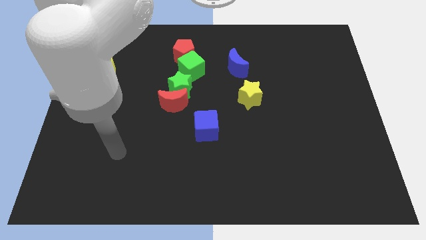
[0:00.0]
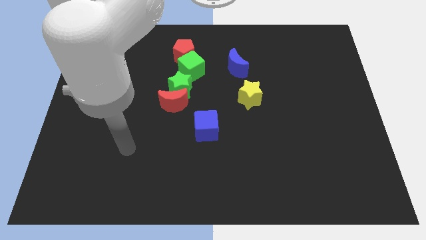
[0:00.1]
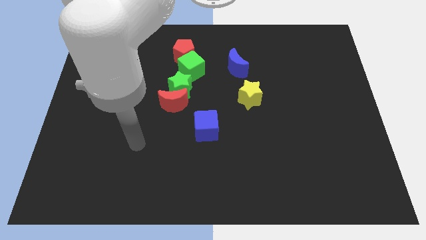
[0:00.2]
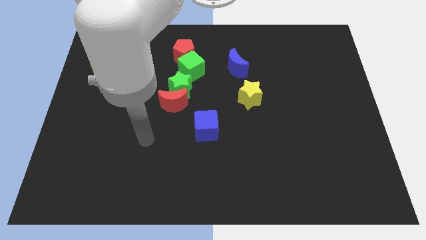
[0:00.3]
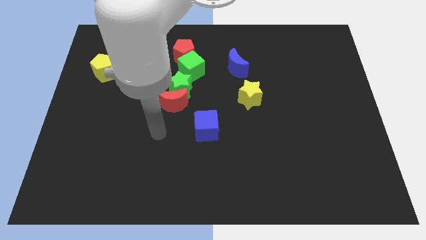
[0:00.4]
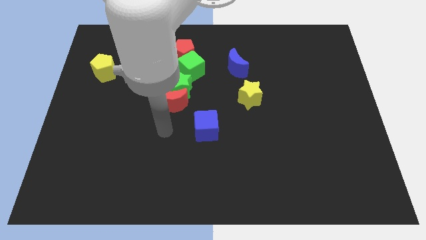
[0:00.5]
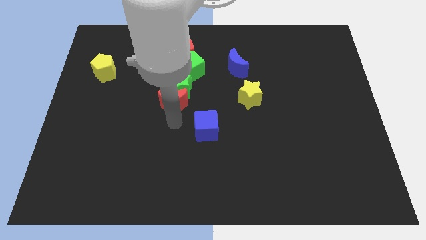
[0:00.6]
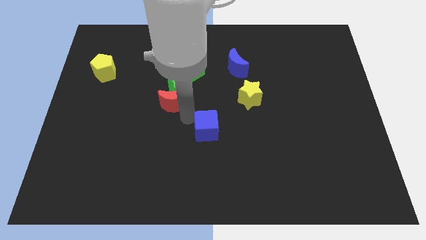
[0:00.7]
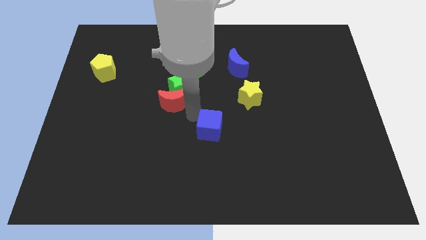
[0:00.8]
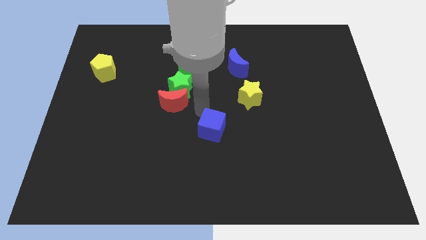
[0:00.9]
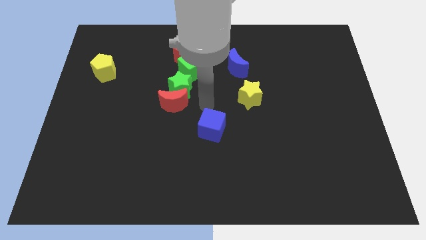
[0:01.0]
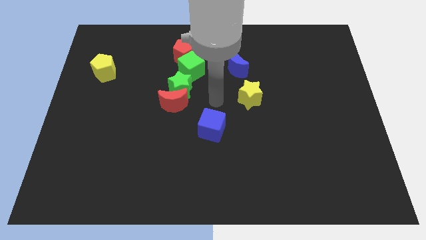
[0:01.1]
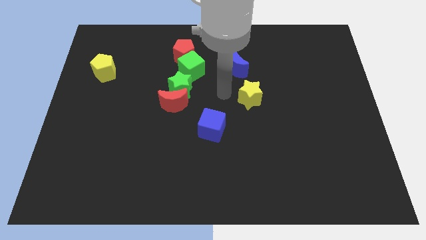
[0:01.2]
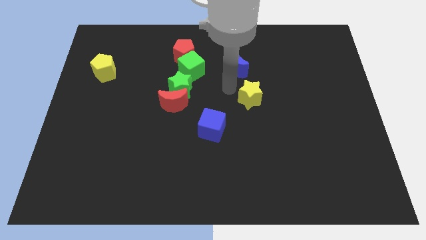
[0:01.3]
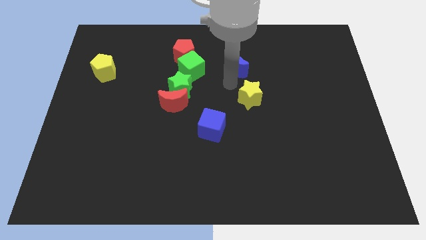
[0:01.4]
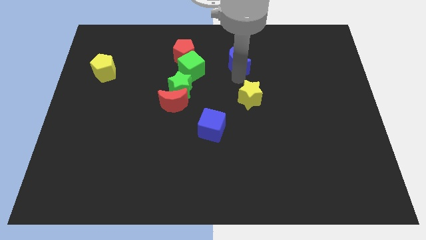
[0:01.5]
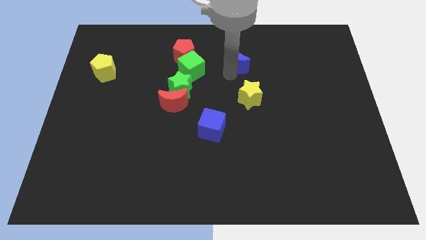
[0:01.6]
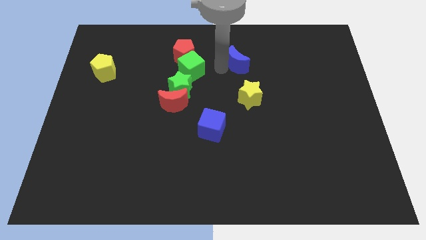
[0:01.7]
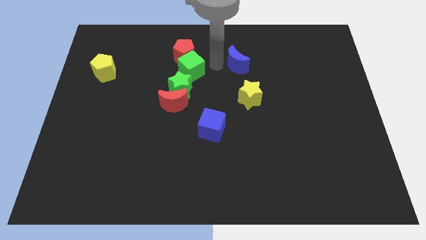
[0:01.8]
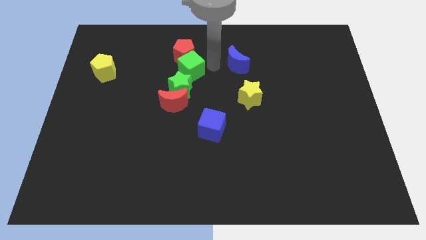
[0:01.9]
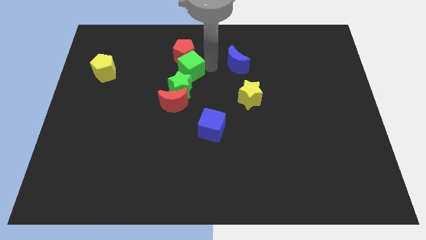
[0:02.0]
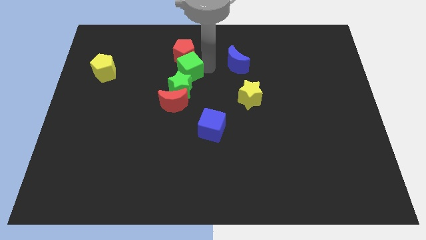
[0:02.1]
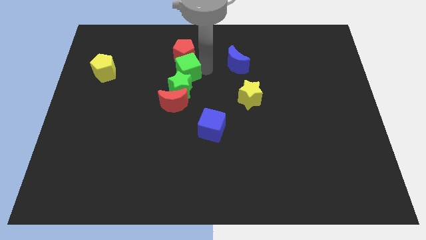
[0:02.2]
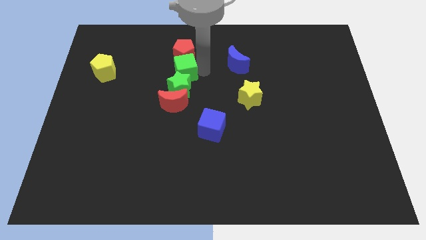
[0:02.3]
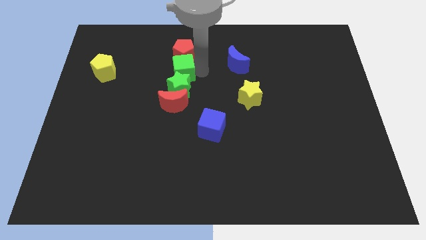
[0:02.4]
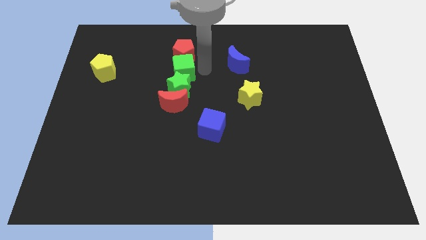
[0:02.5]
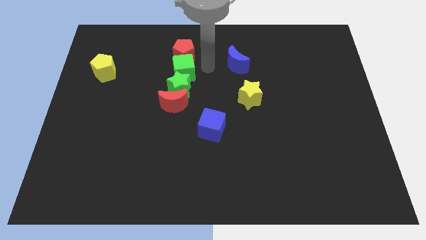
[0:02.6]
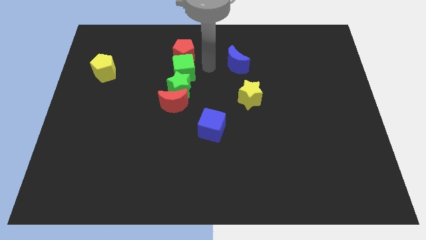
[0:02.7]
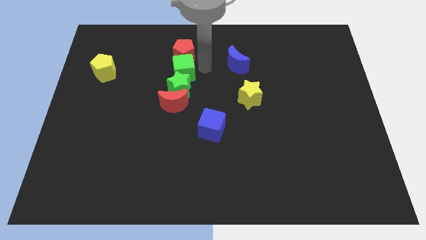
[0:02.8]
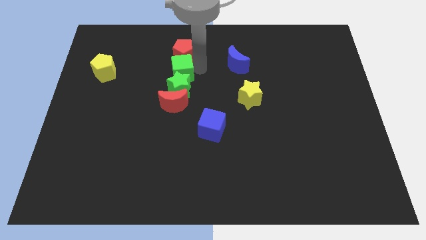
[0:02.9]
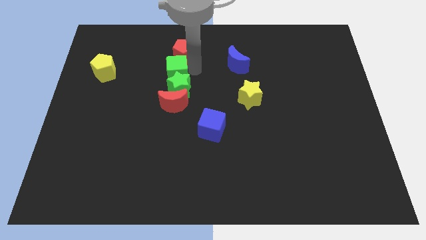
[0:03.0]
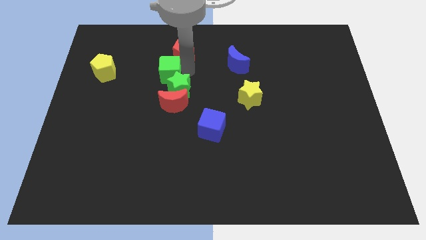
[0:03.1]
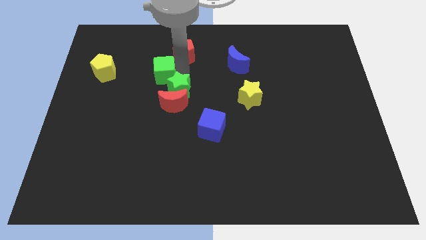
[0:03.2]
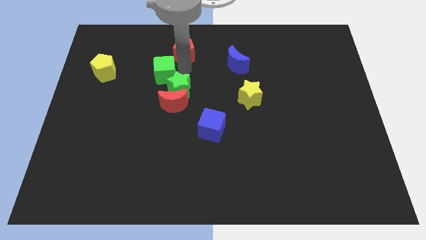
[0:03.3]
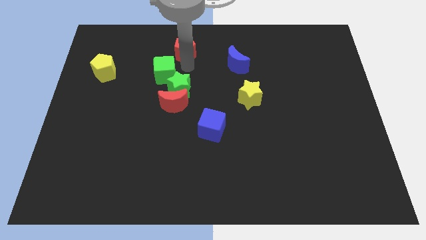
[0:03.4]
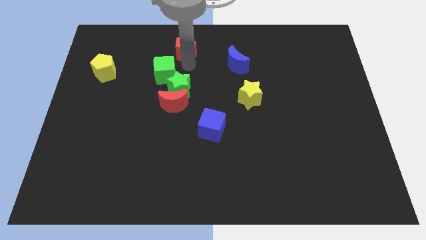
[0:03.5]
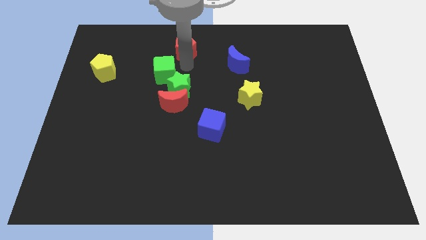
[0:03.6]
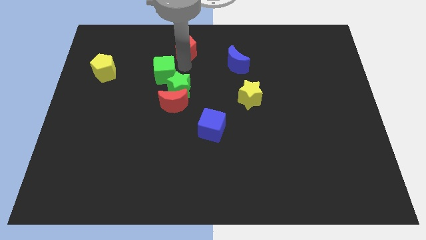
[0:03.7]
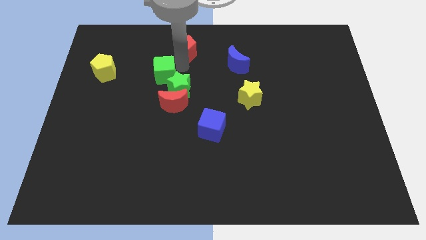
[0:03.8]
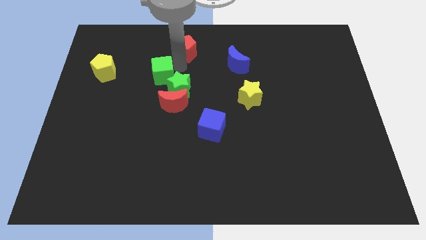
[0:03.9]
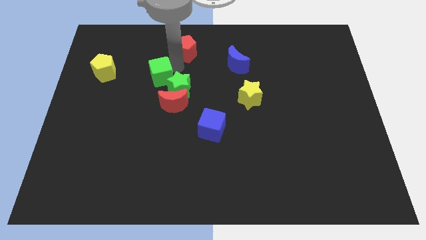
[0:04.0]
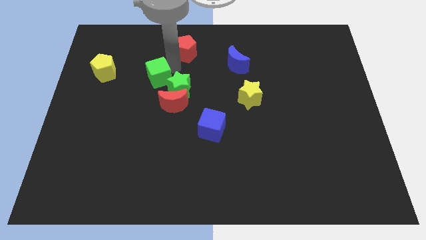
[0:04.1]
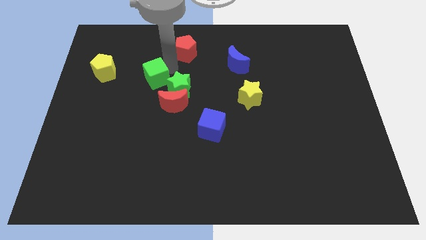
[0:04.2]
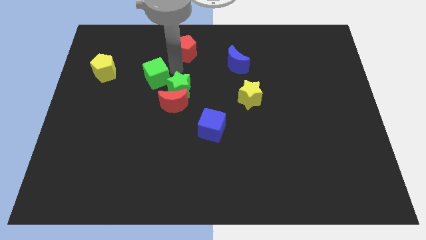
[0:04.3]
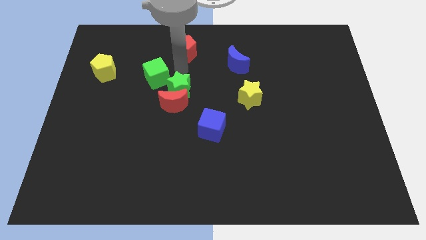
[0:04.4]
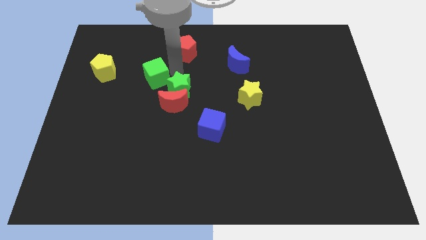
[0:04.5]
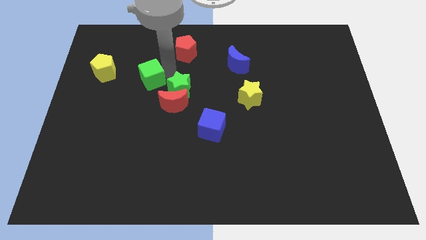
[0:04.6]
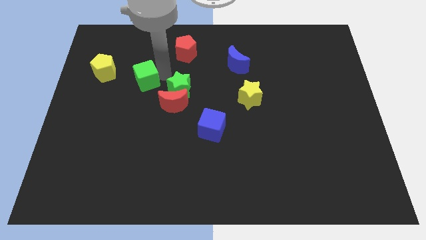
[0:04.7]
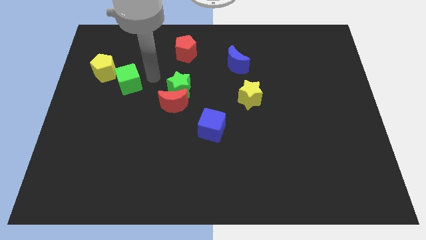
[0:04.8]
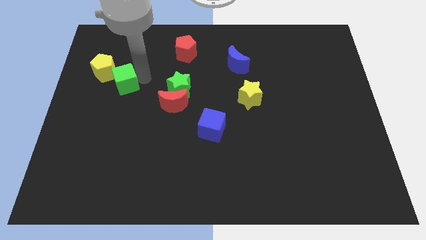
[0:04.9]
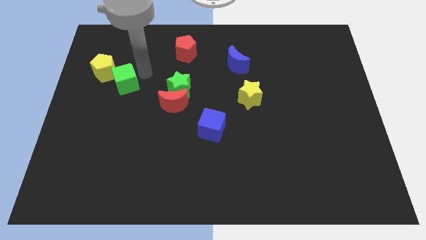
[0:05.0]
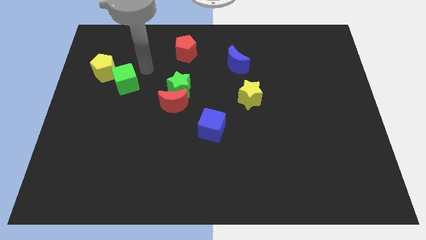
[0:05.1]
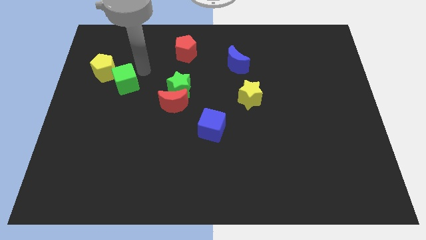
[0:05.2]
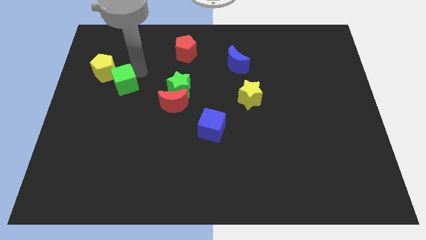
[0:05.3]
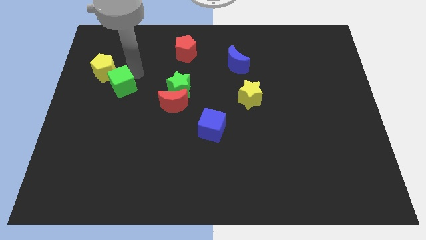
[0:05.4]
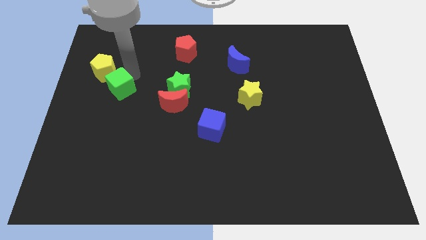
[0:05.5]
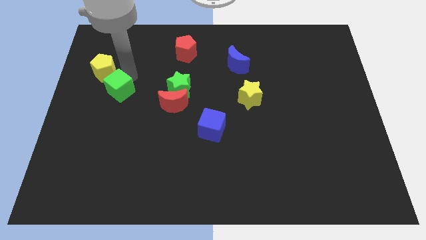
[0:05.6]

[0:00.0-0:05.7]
slide the green cube below the yellow pentagon

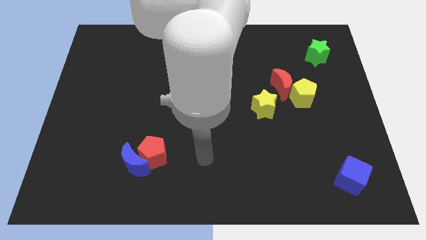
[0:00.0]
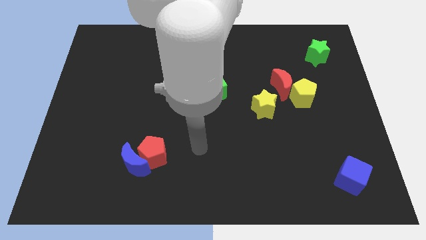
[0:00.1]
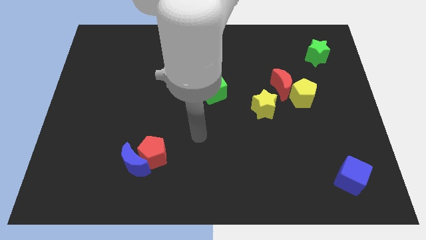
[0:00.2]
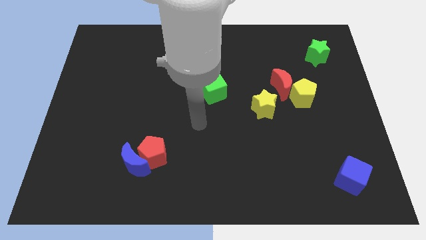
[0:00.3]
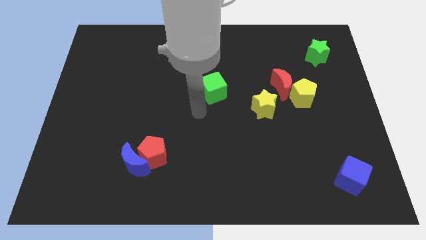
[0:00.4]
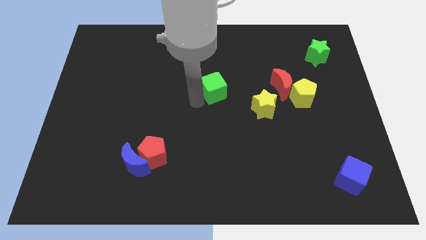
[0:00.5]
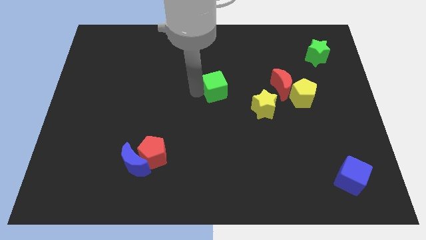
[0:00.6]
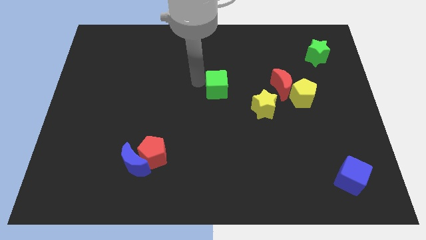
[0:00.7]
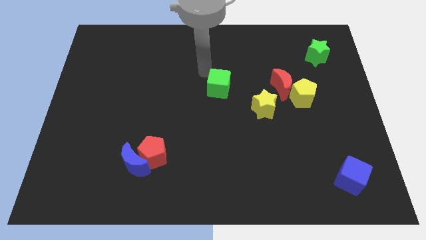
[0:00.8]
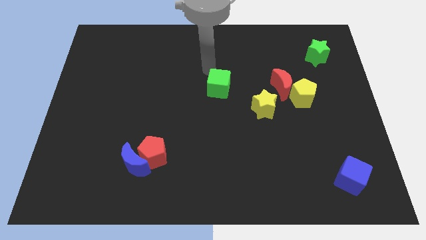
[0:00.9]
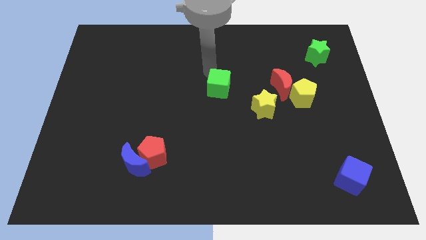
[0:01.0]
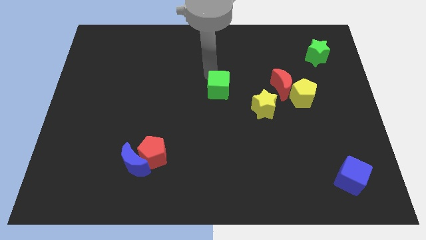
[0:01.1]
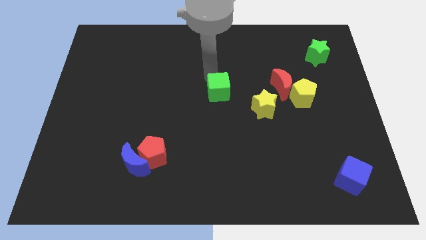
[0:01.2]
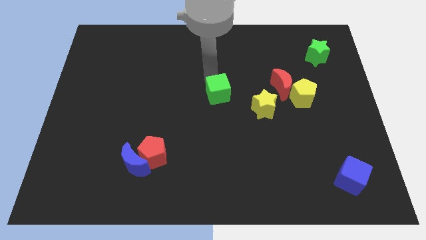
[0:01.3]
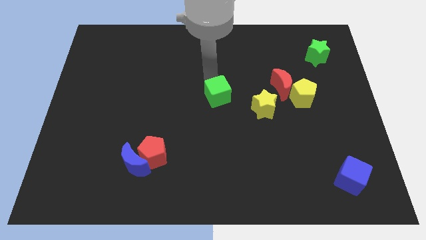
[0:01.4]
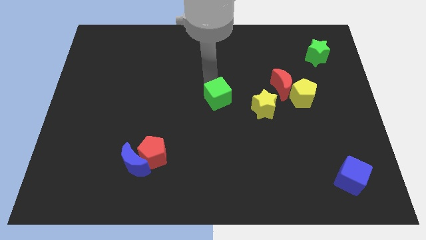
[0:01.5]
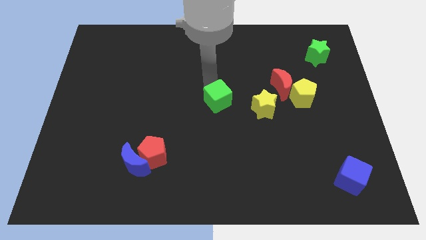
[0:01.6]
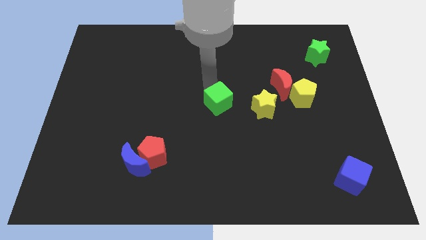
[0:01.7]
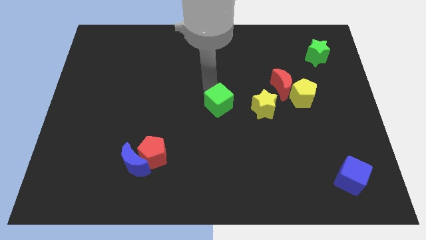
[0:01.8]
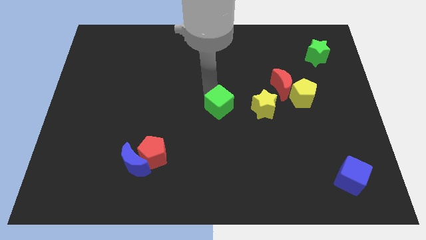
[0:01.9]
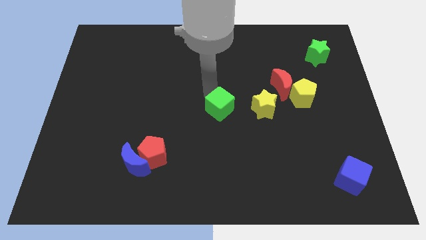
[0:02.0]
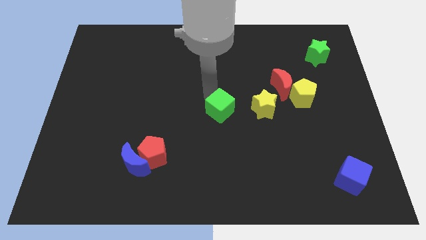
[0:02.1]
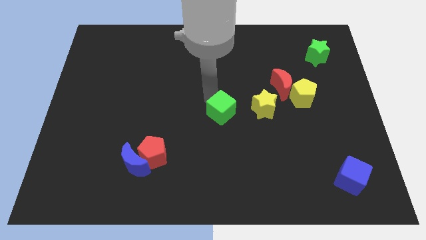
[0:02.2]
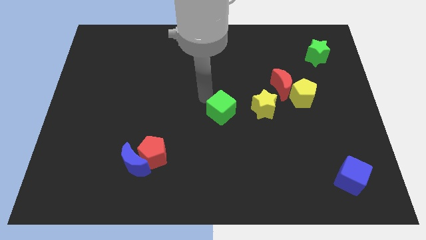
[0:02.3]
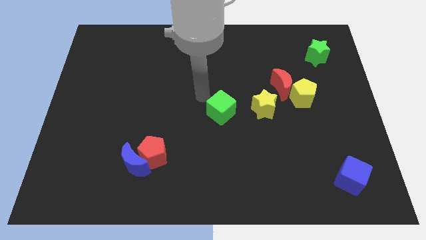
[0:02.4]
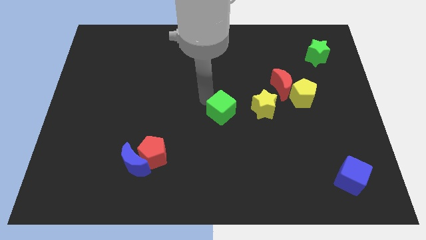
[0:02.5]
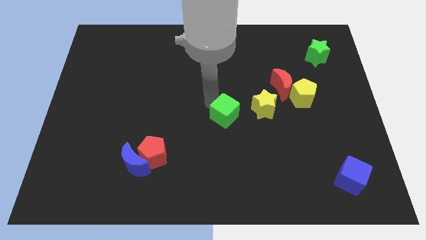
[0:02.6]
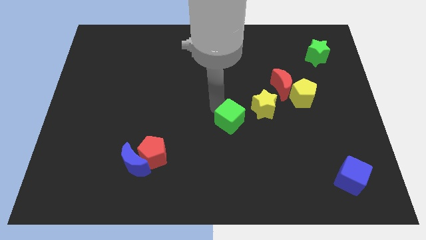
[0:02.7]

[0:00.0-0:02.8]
move the green cube to the bottom left side of the yellow star
